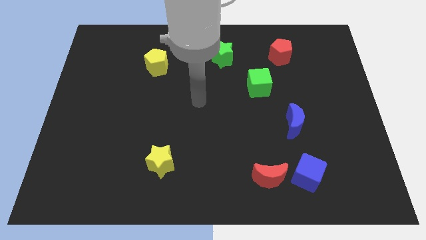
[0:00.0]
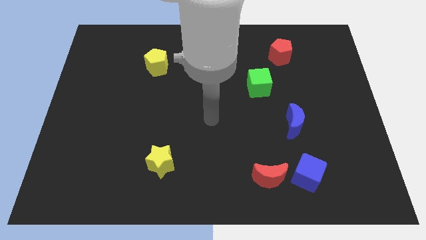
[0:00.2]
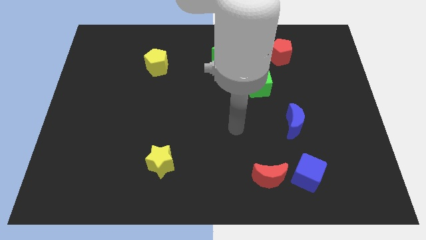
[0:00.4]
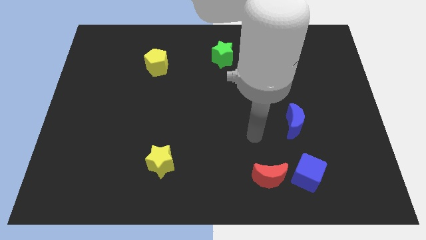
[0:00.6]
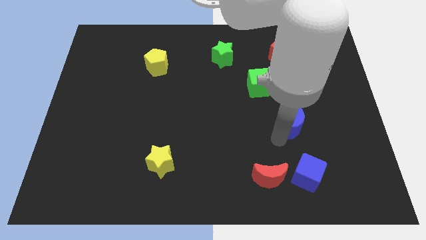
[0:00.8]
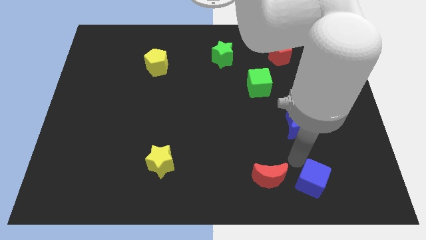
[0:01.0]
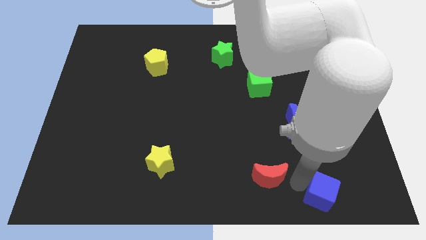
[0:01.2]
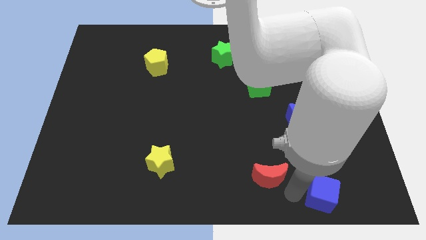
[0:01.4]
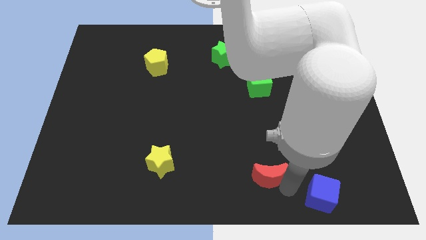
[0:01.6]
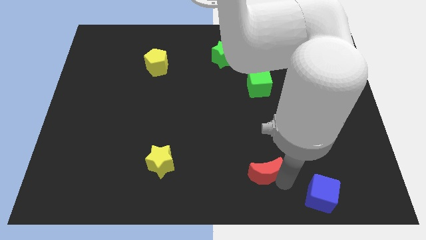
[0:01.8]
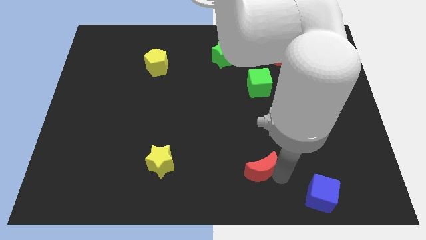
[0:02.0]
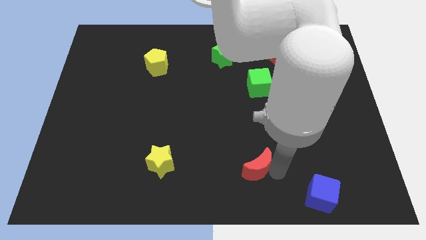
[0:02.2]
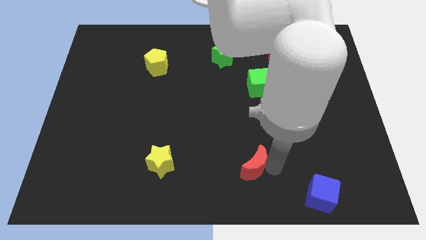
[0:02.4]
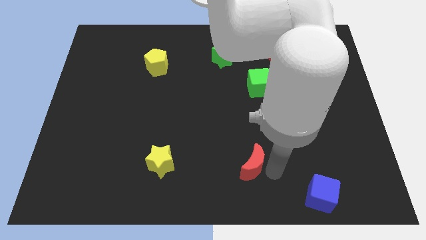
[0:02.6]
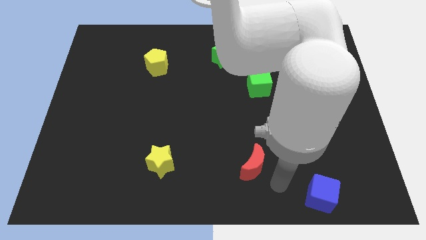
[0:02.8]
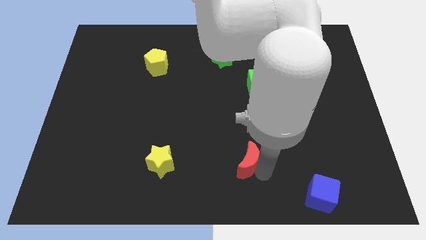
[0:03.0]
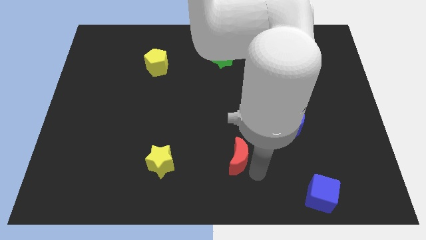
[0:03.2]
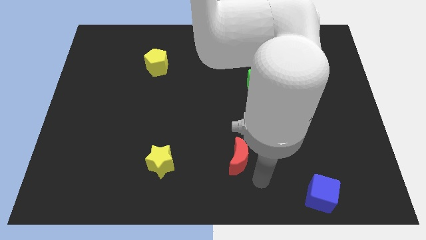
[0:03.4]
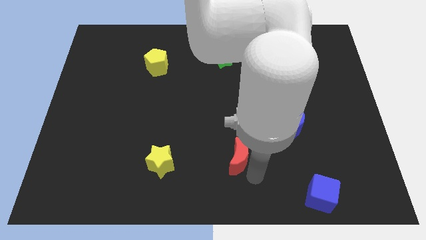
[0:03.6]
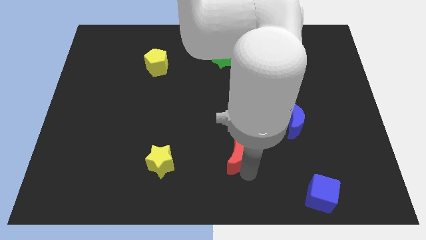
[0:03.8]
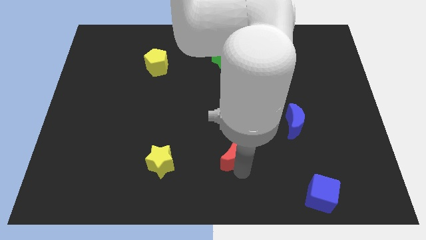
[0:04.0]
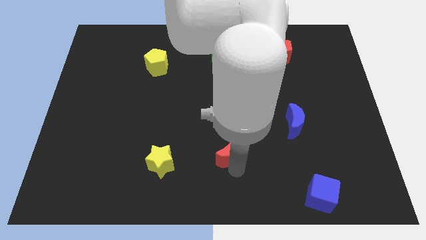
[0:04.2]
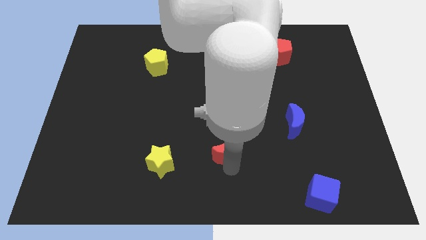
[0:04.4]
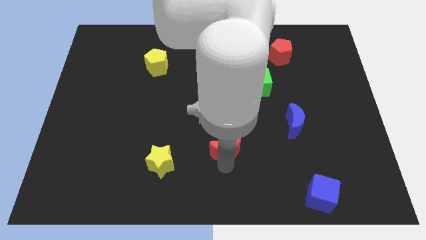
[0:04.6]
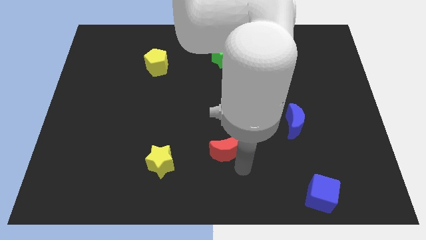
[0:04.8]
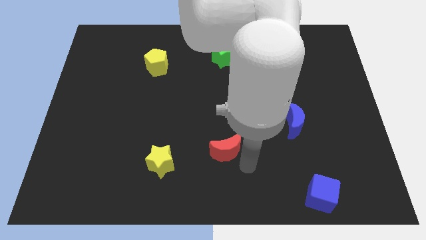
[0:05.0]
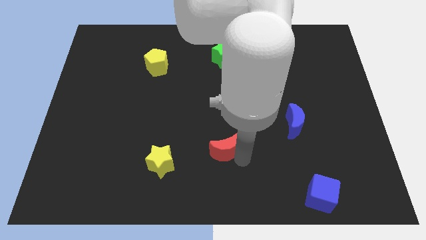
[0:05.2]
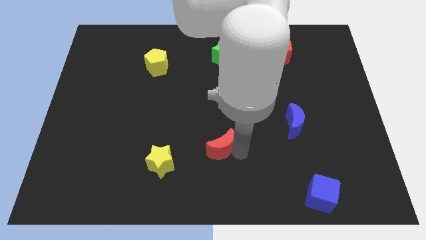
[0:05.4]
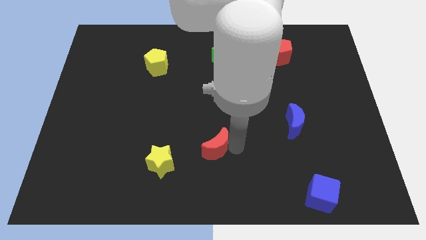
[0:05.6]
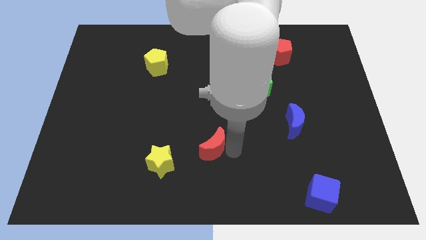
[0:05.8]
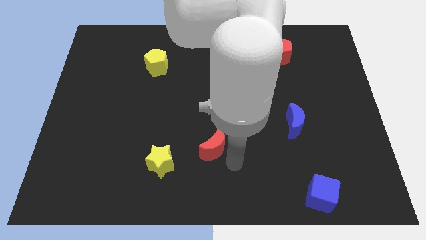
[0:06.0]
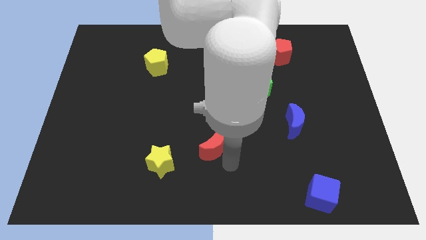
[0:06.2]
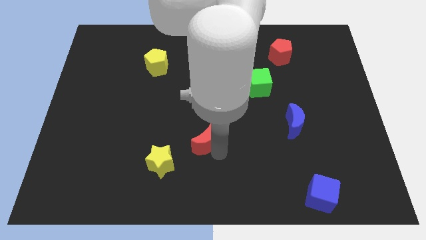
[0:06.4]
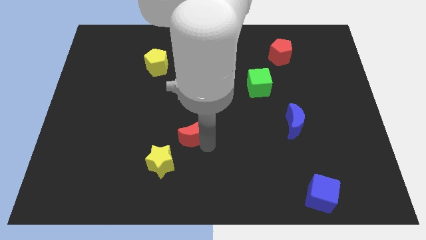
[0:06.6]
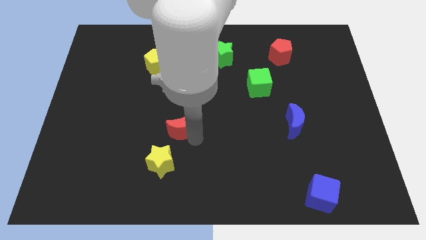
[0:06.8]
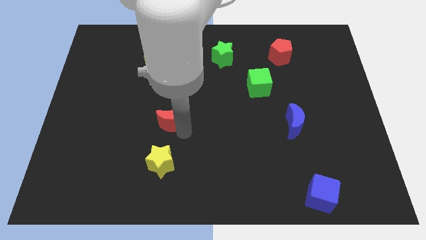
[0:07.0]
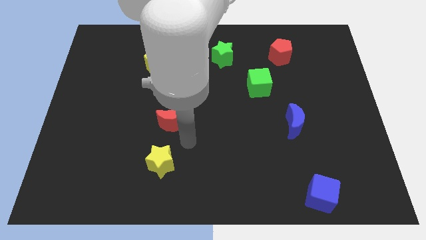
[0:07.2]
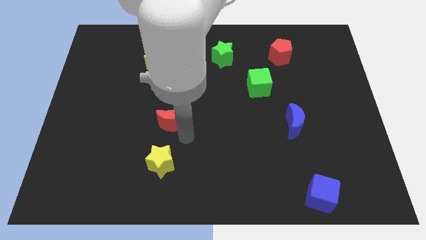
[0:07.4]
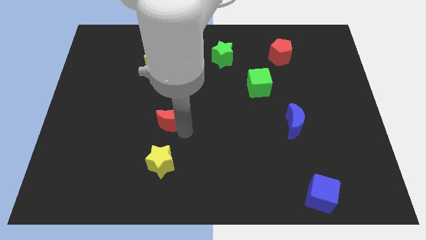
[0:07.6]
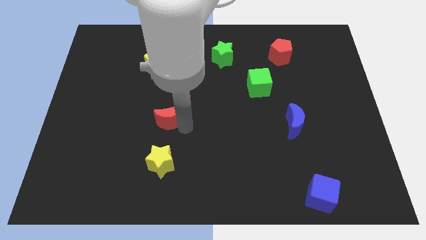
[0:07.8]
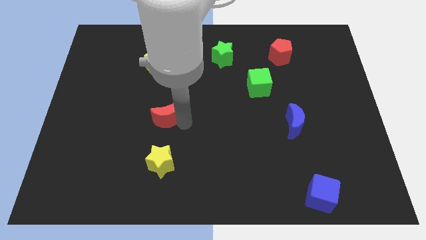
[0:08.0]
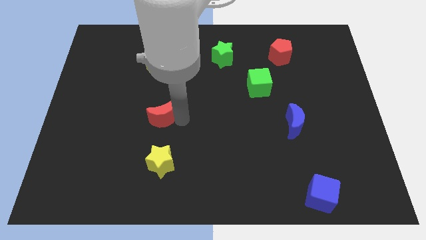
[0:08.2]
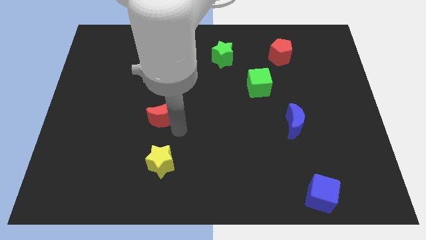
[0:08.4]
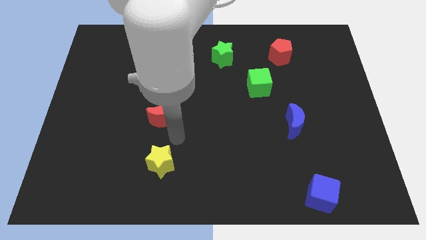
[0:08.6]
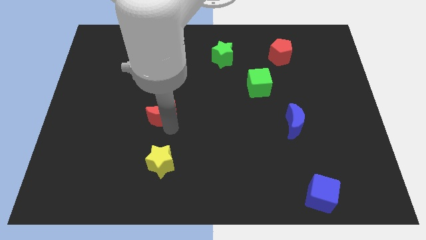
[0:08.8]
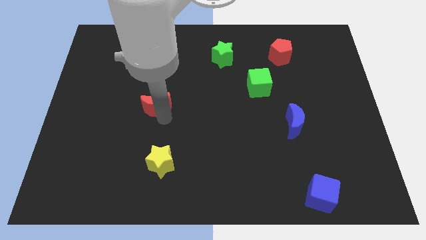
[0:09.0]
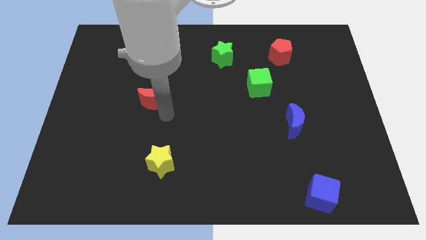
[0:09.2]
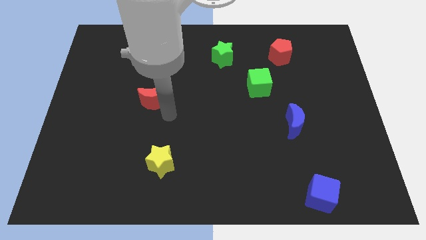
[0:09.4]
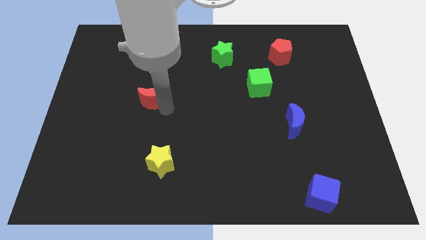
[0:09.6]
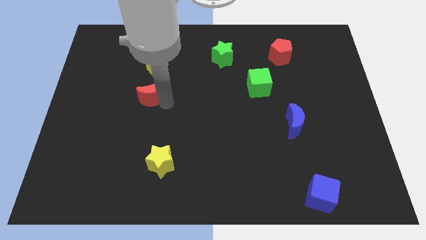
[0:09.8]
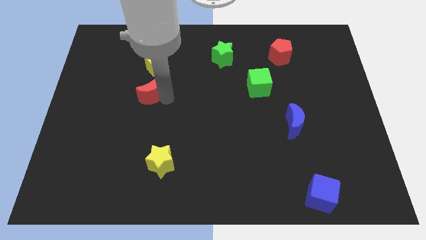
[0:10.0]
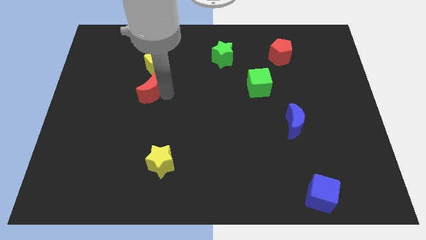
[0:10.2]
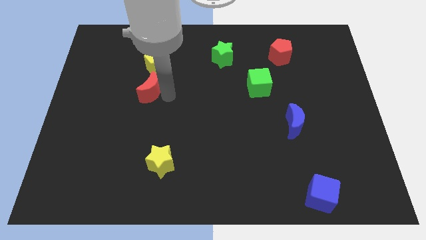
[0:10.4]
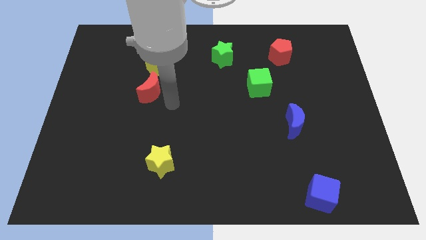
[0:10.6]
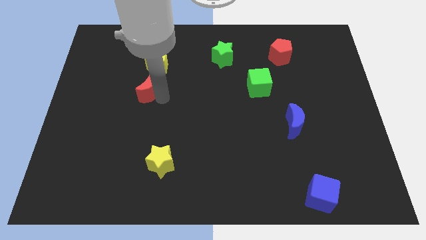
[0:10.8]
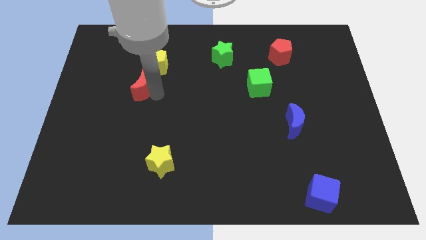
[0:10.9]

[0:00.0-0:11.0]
slide the red moon to the bottom left side of the yellow pentagon

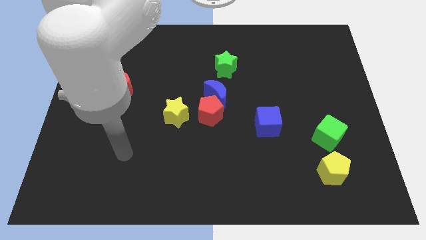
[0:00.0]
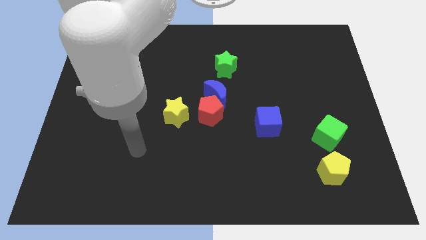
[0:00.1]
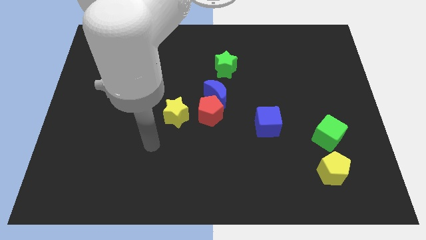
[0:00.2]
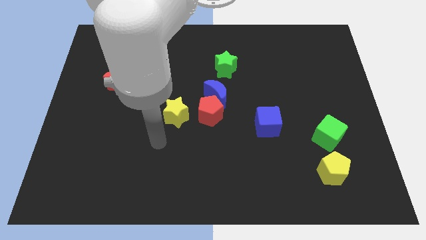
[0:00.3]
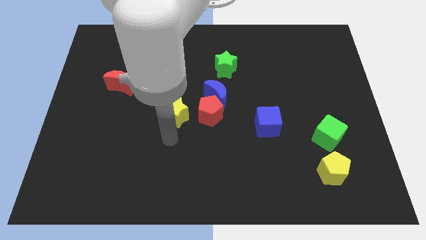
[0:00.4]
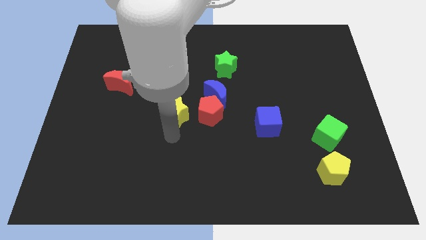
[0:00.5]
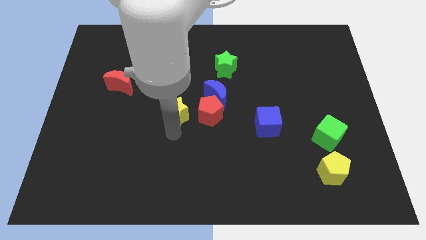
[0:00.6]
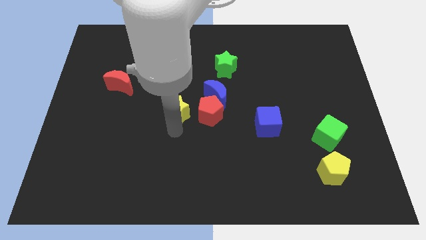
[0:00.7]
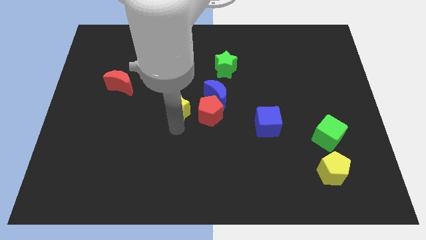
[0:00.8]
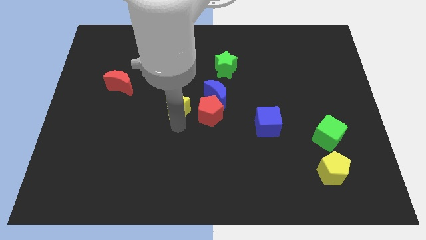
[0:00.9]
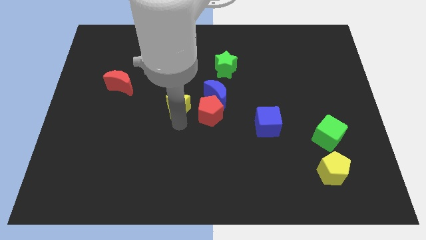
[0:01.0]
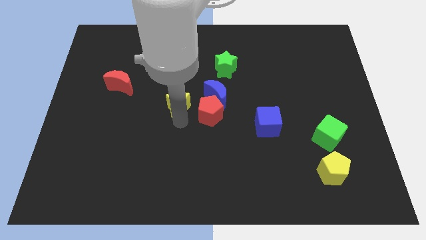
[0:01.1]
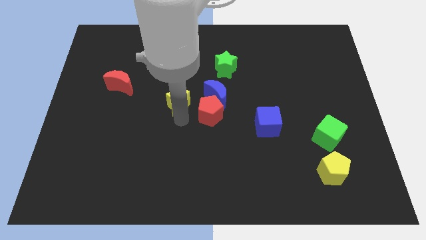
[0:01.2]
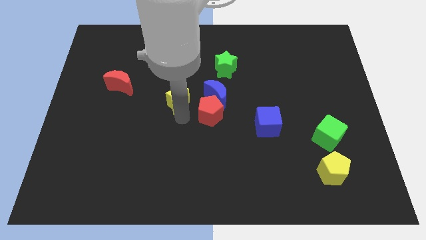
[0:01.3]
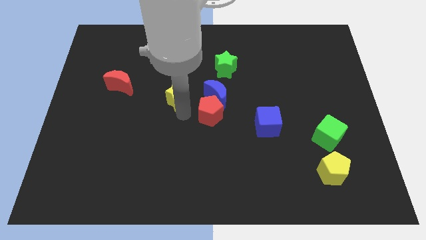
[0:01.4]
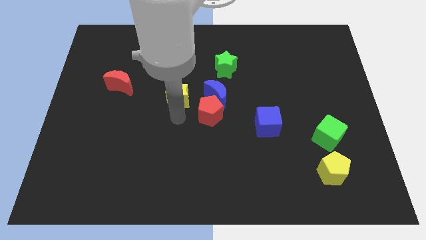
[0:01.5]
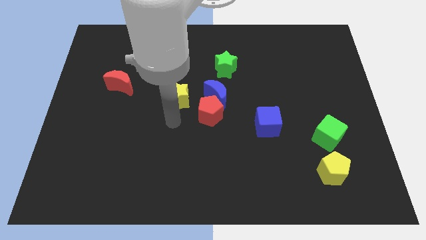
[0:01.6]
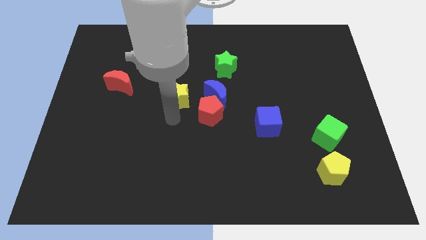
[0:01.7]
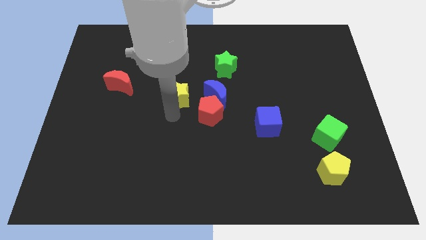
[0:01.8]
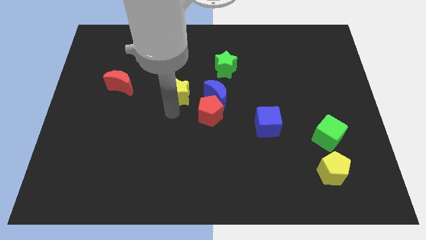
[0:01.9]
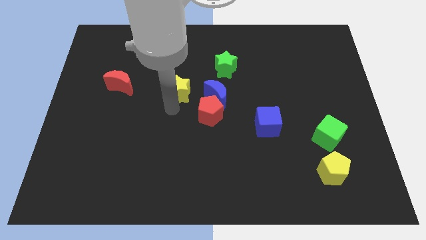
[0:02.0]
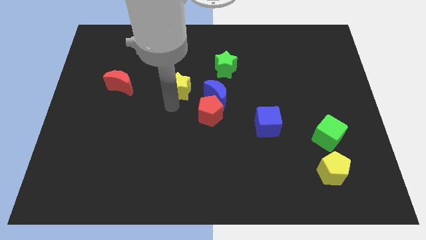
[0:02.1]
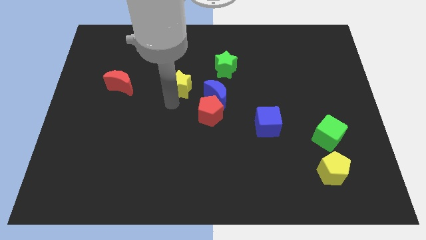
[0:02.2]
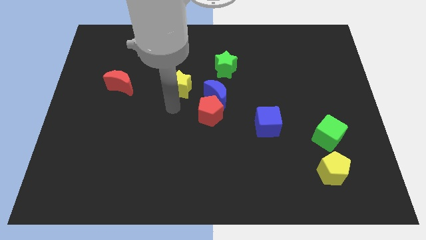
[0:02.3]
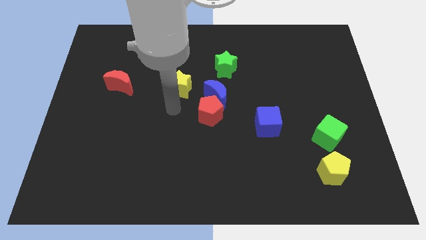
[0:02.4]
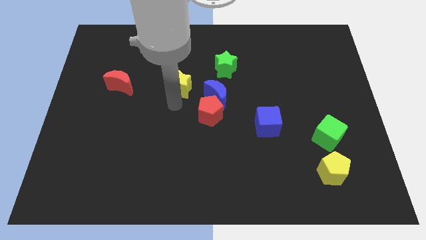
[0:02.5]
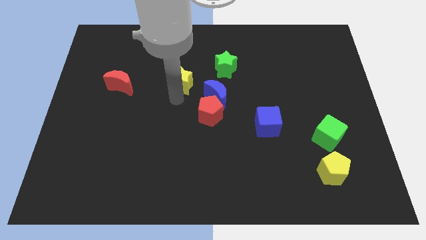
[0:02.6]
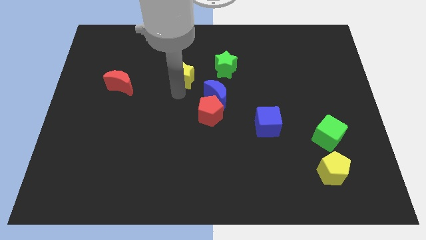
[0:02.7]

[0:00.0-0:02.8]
put the yellow star left of the green star
